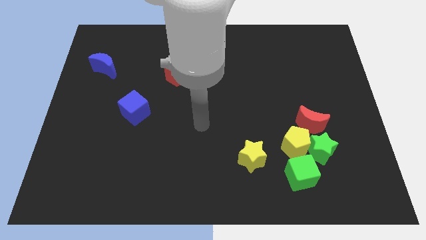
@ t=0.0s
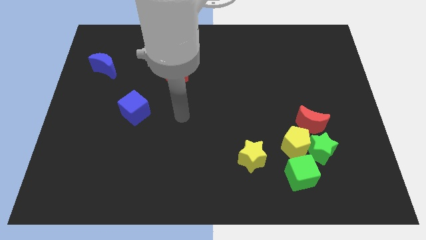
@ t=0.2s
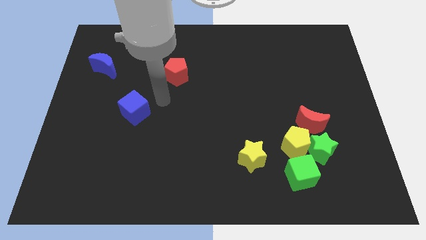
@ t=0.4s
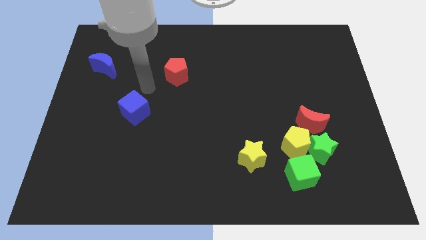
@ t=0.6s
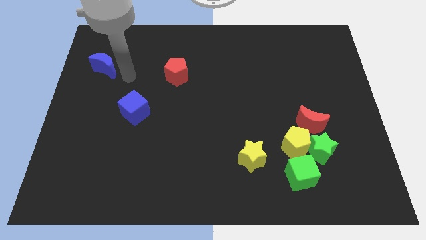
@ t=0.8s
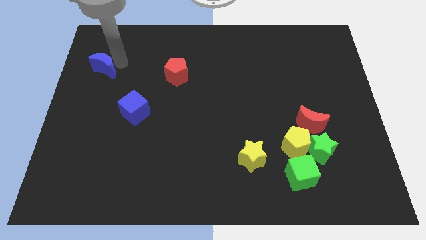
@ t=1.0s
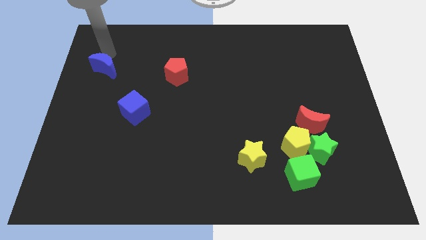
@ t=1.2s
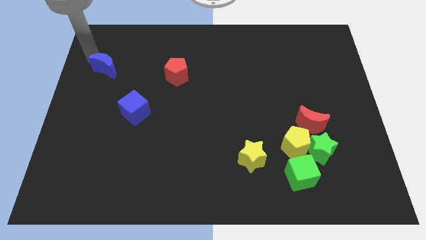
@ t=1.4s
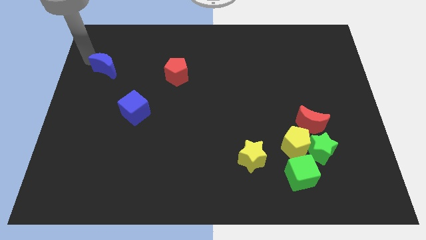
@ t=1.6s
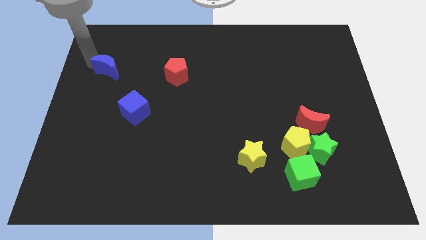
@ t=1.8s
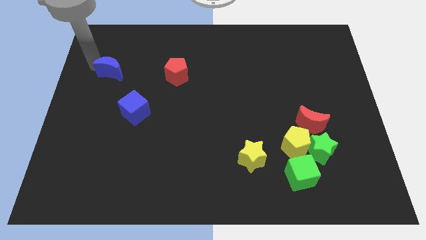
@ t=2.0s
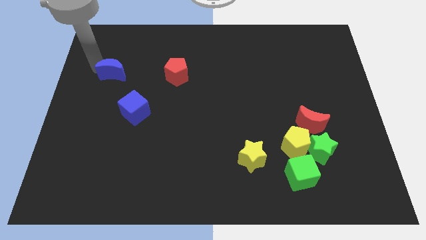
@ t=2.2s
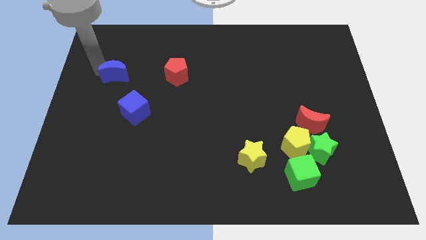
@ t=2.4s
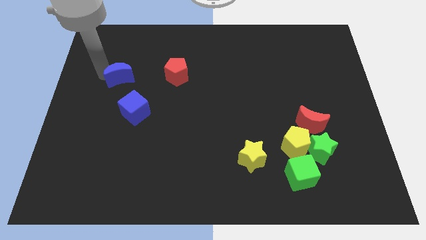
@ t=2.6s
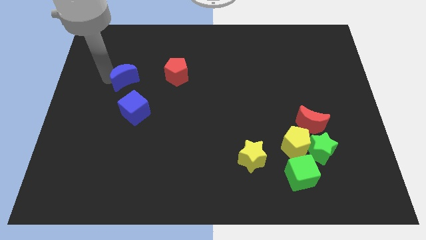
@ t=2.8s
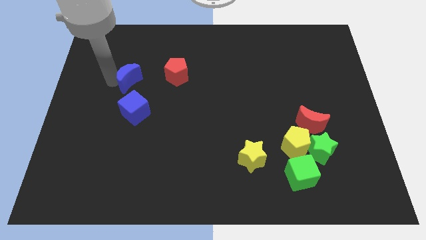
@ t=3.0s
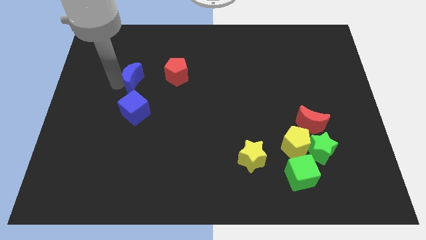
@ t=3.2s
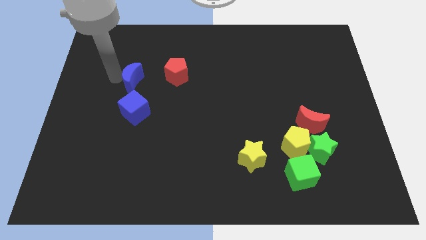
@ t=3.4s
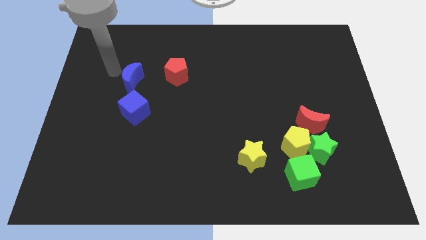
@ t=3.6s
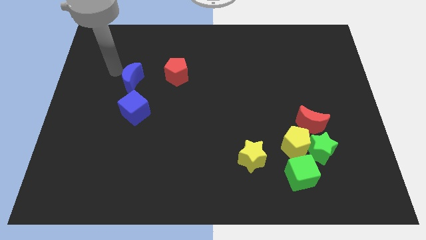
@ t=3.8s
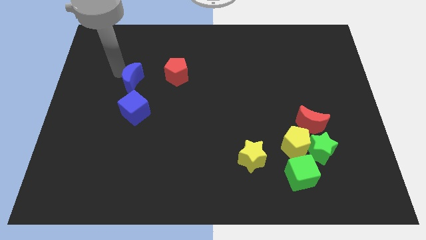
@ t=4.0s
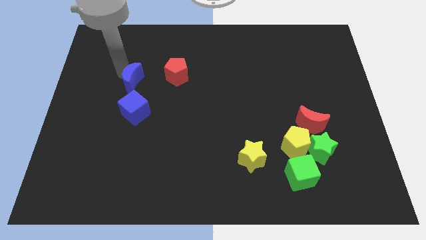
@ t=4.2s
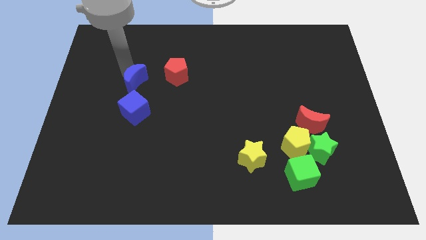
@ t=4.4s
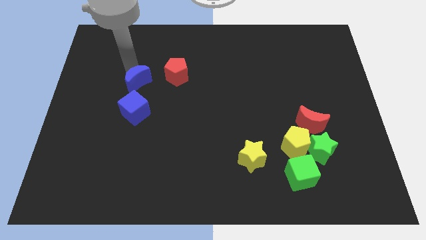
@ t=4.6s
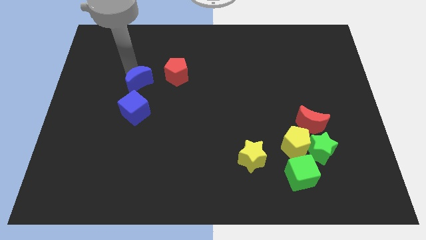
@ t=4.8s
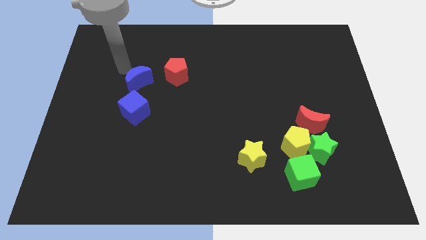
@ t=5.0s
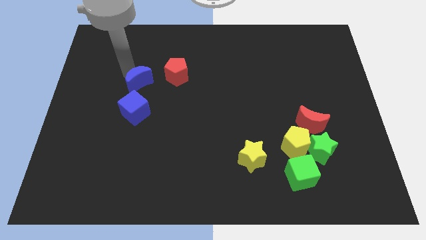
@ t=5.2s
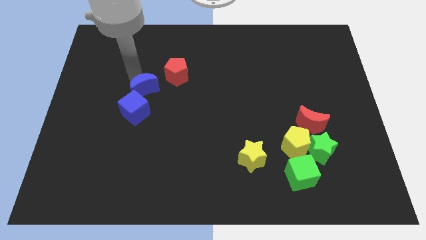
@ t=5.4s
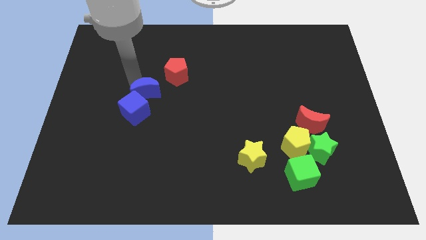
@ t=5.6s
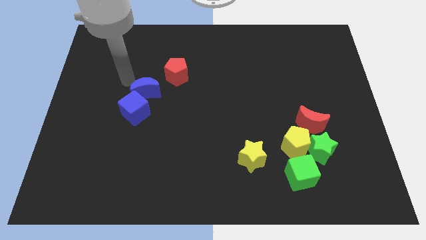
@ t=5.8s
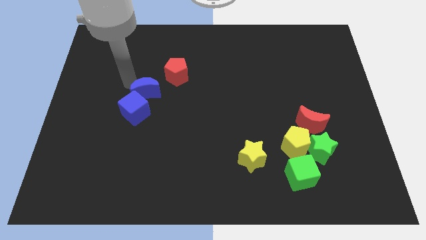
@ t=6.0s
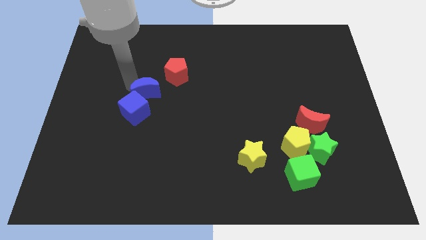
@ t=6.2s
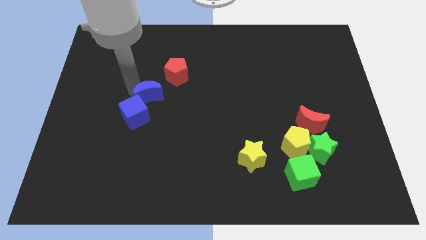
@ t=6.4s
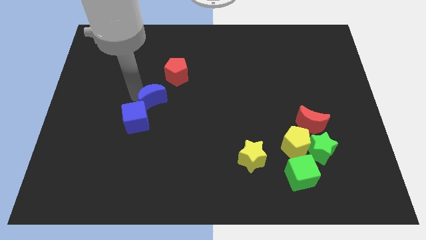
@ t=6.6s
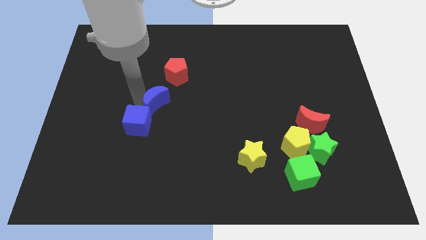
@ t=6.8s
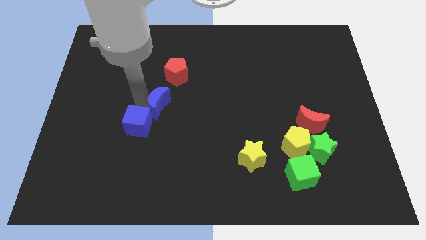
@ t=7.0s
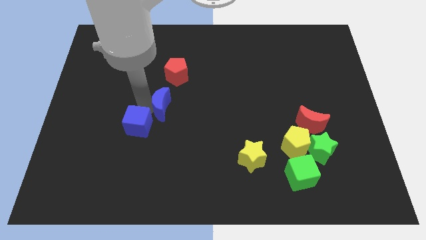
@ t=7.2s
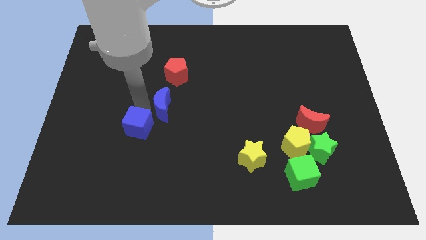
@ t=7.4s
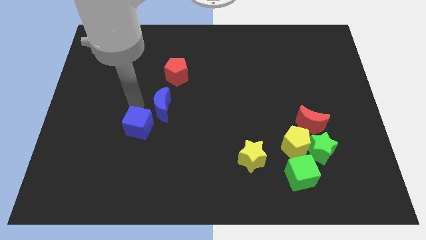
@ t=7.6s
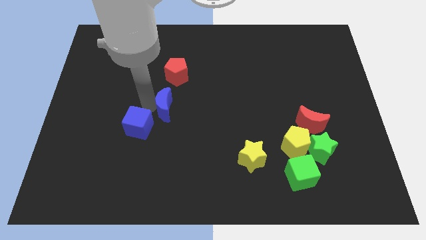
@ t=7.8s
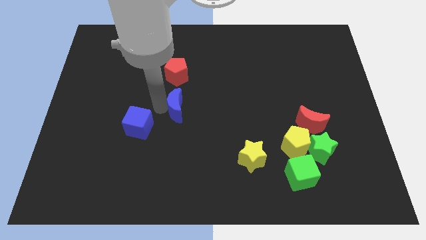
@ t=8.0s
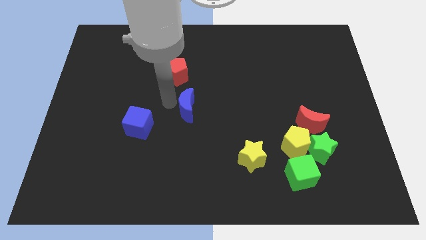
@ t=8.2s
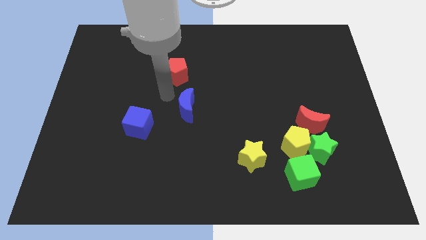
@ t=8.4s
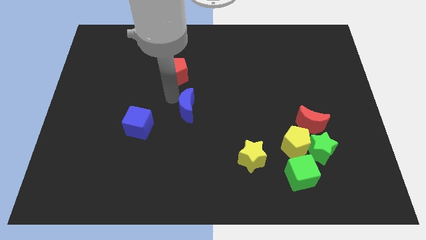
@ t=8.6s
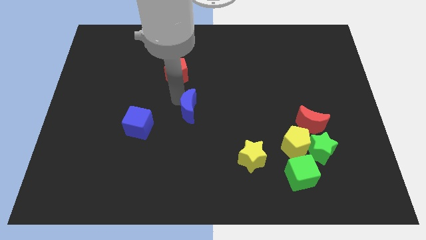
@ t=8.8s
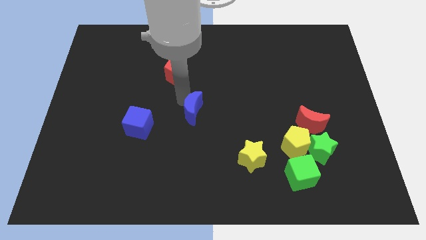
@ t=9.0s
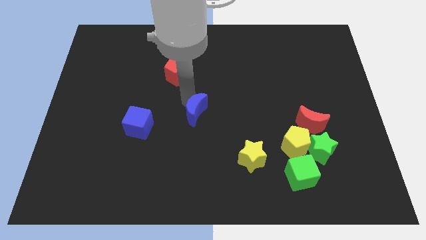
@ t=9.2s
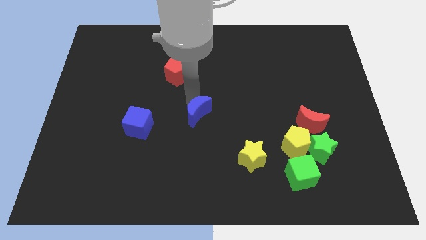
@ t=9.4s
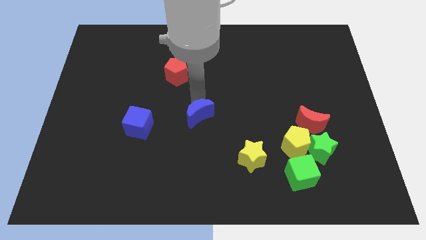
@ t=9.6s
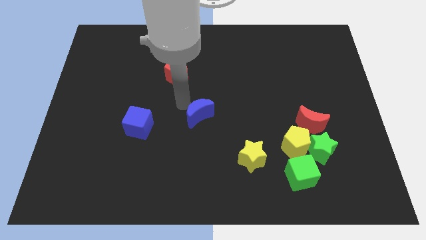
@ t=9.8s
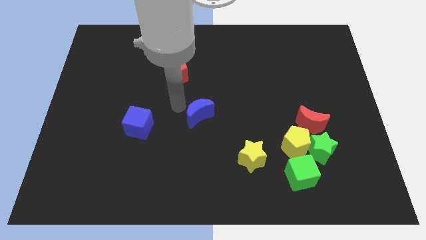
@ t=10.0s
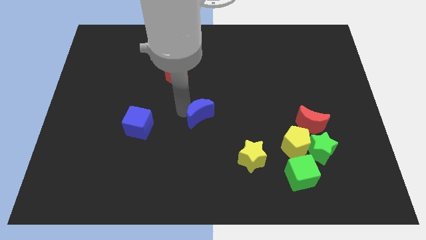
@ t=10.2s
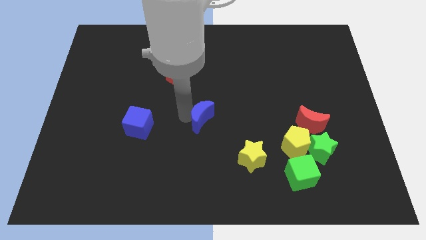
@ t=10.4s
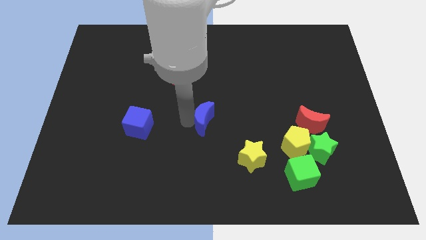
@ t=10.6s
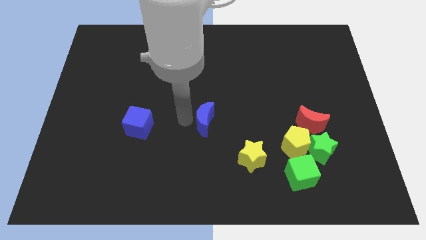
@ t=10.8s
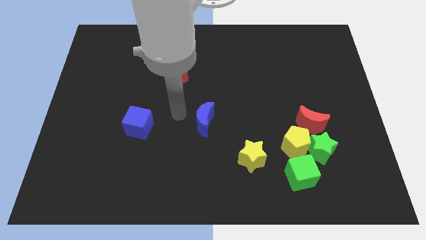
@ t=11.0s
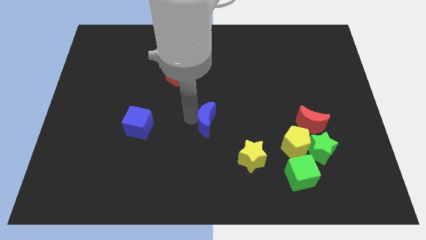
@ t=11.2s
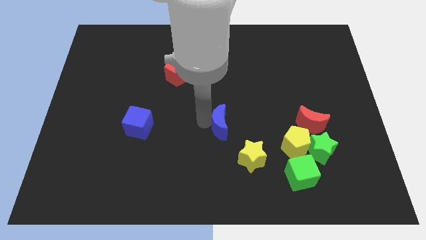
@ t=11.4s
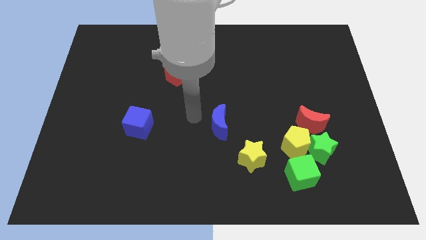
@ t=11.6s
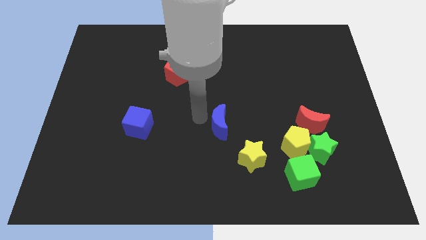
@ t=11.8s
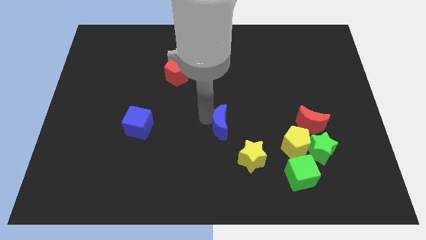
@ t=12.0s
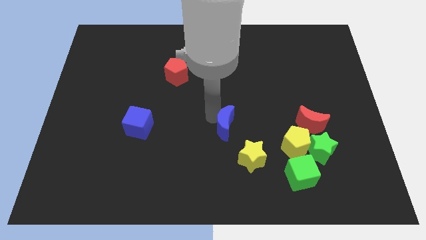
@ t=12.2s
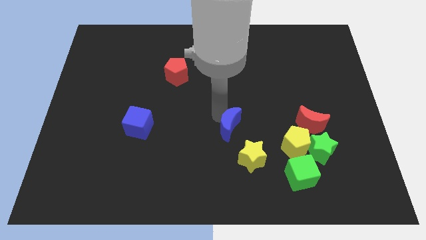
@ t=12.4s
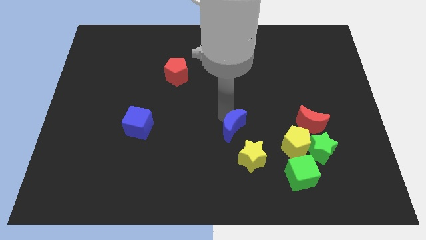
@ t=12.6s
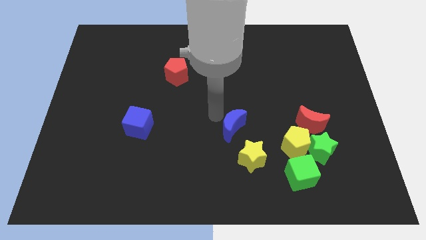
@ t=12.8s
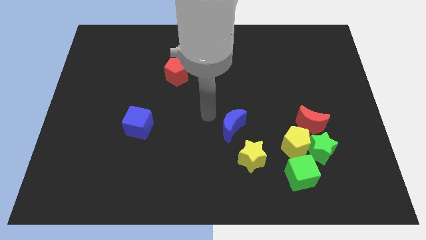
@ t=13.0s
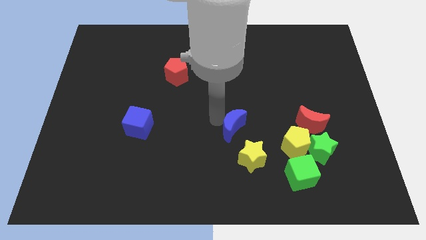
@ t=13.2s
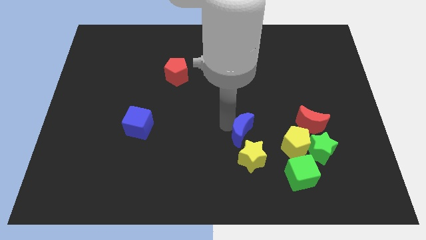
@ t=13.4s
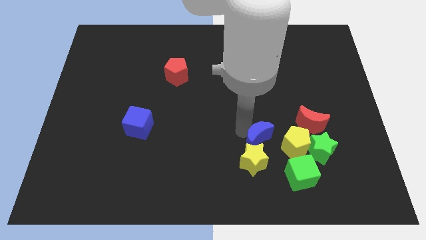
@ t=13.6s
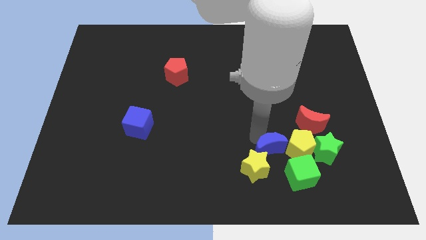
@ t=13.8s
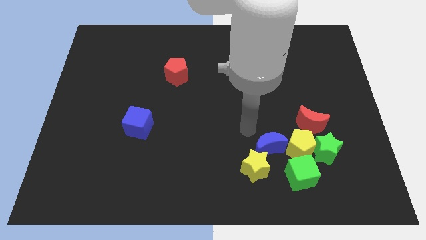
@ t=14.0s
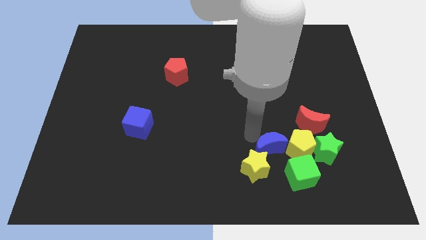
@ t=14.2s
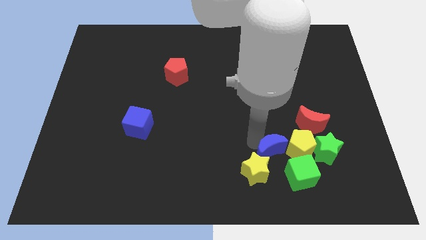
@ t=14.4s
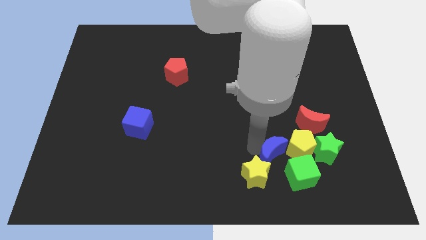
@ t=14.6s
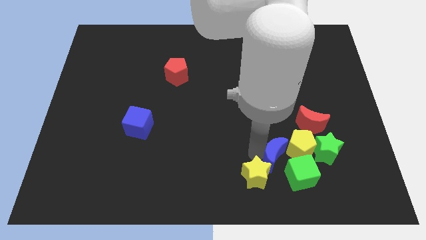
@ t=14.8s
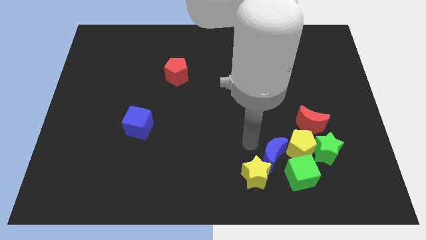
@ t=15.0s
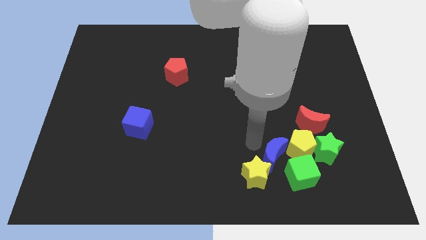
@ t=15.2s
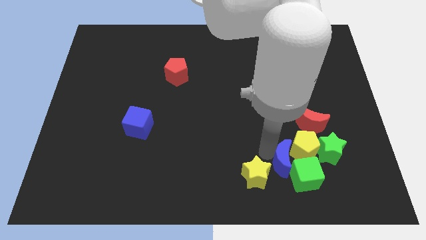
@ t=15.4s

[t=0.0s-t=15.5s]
move the blue moon towards the green cube

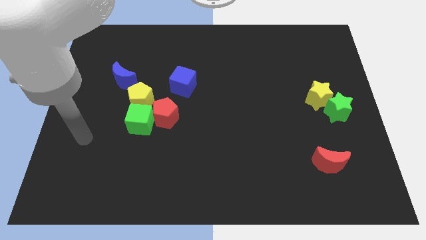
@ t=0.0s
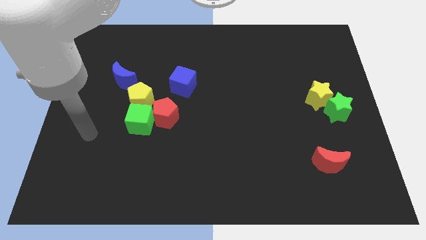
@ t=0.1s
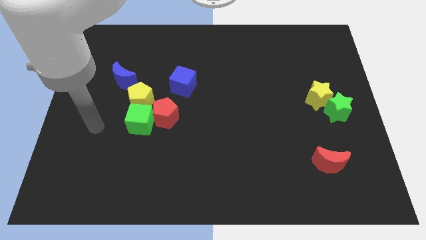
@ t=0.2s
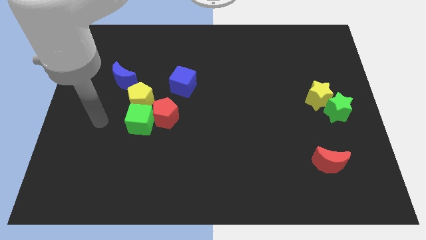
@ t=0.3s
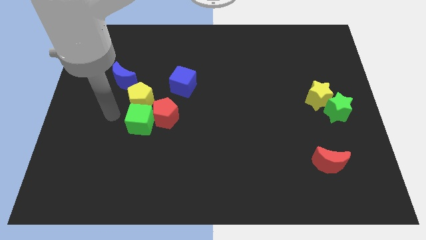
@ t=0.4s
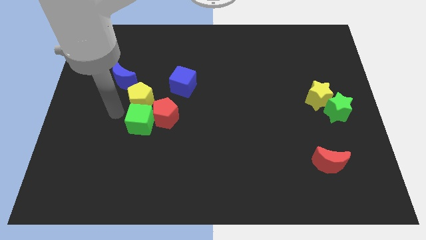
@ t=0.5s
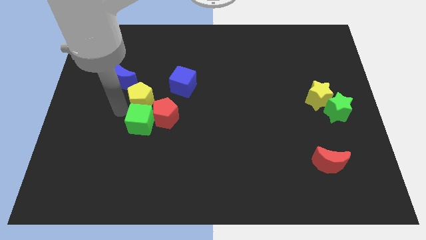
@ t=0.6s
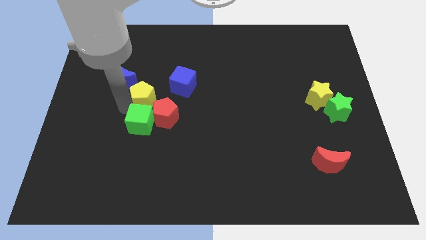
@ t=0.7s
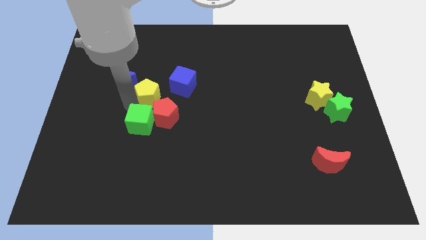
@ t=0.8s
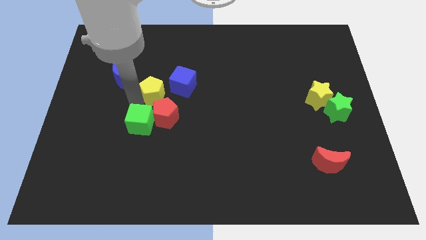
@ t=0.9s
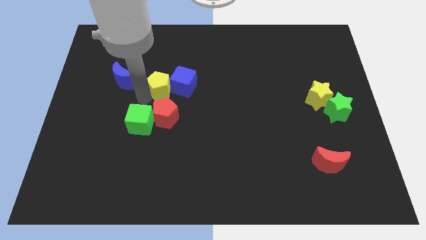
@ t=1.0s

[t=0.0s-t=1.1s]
put the yellow pentagon towards the blue cube
